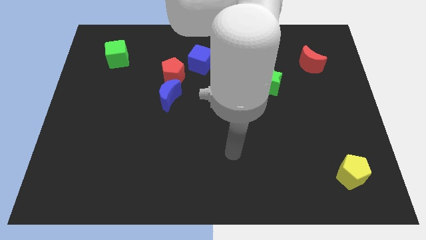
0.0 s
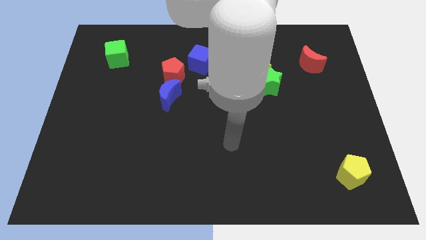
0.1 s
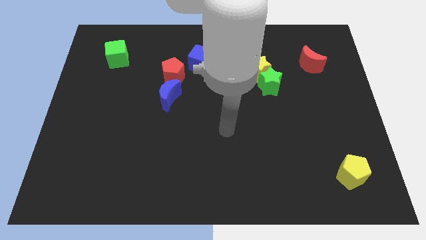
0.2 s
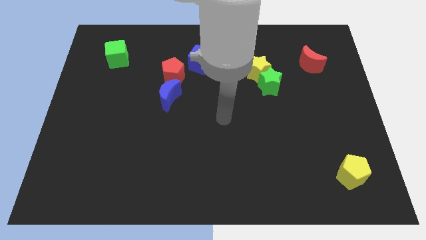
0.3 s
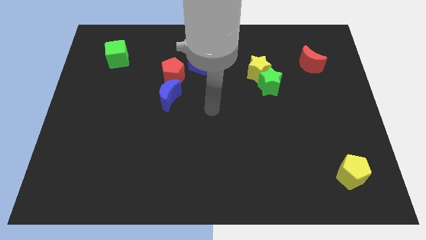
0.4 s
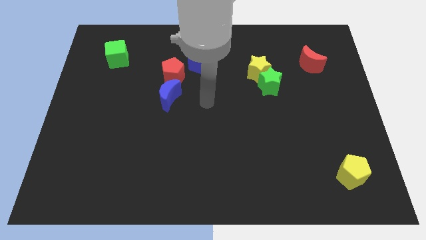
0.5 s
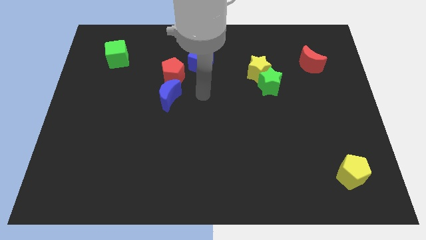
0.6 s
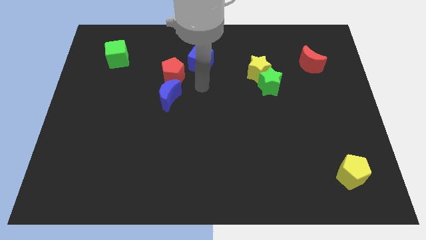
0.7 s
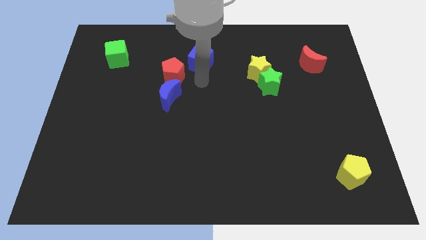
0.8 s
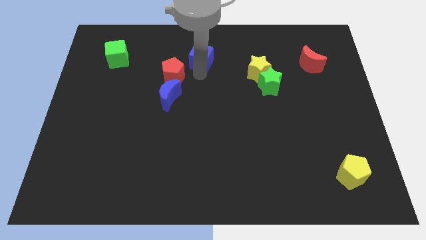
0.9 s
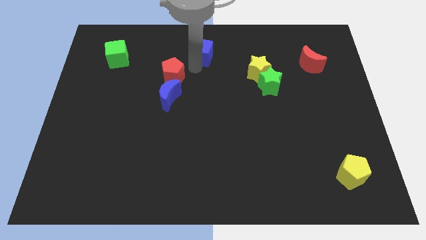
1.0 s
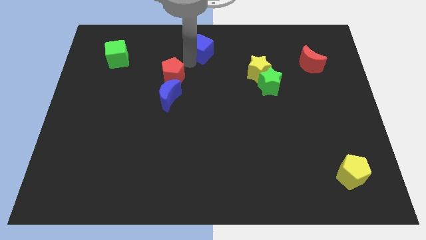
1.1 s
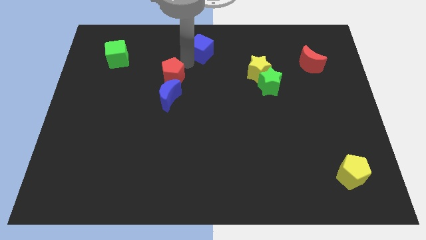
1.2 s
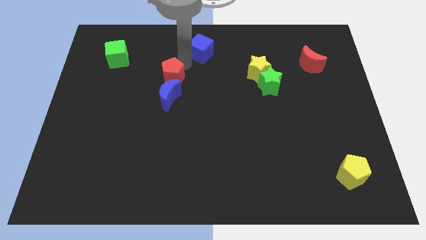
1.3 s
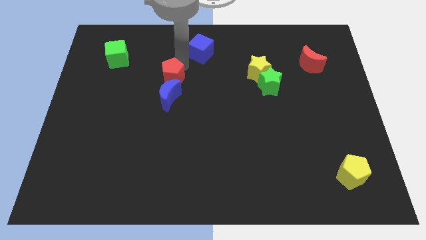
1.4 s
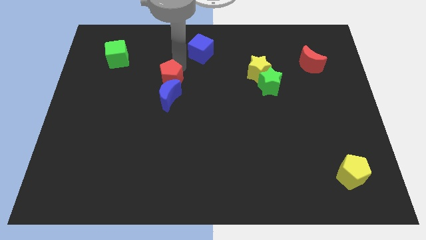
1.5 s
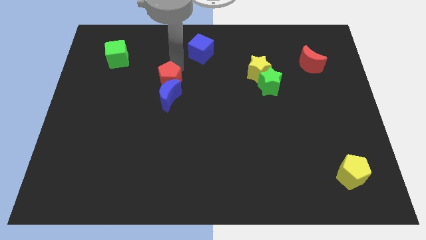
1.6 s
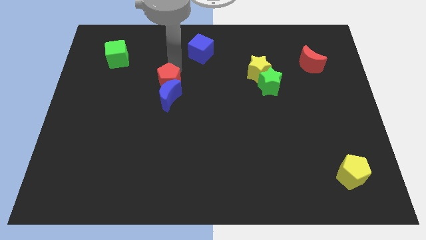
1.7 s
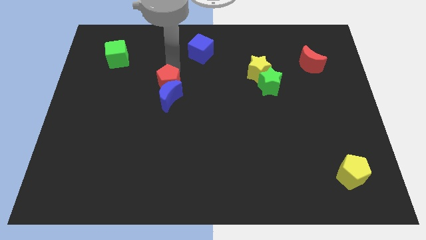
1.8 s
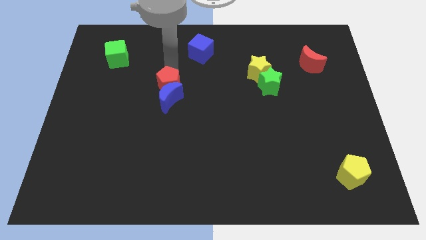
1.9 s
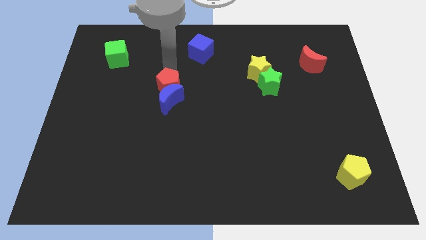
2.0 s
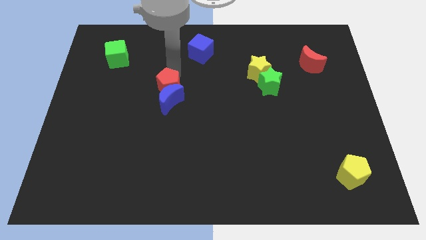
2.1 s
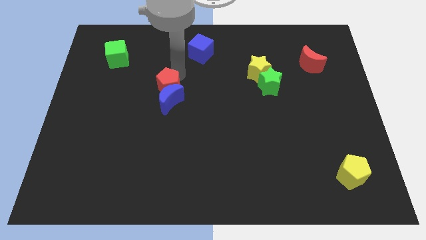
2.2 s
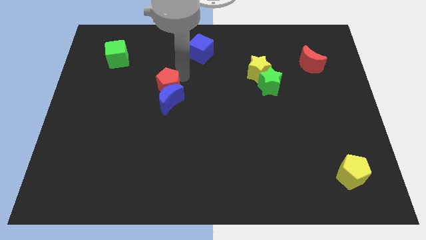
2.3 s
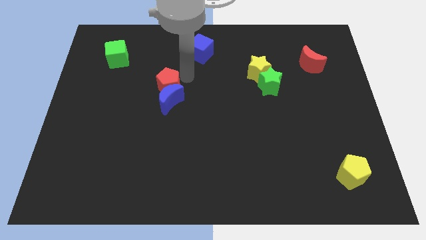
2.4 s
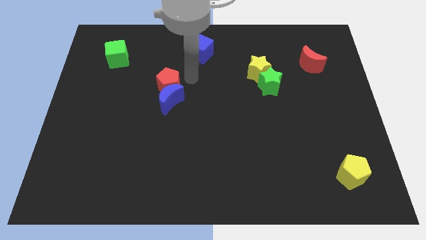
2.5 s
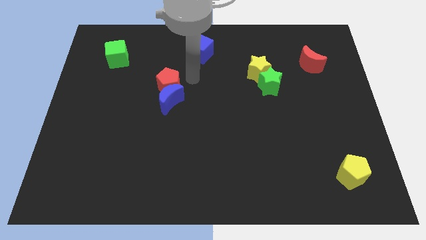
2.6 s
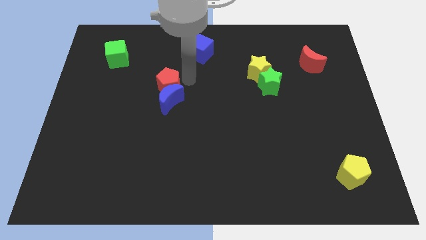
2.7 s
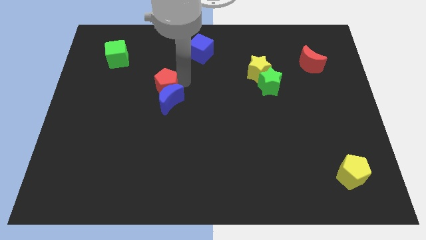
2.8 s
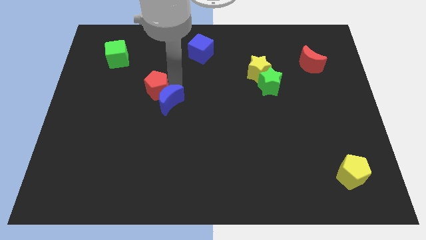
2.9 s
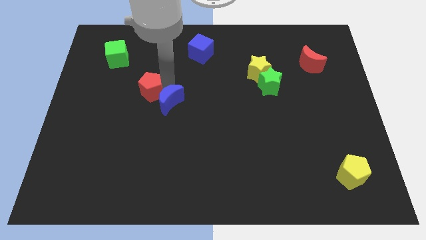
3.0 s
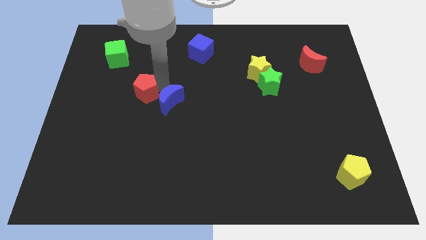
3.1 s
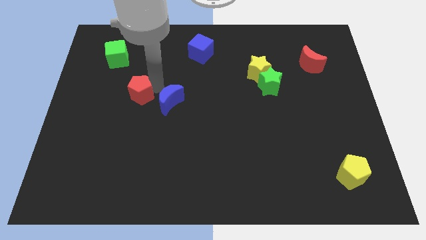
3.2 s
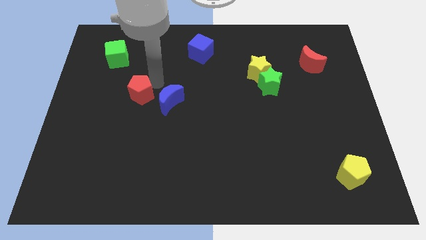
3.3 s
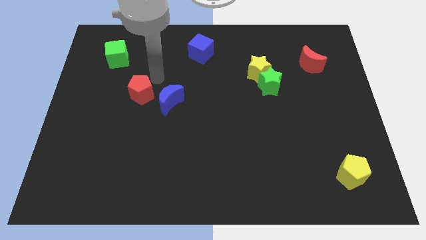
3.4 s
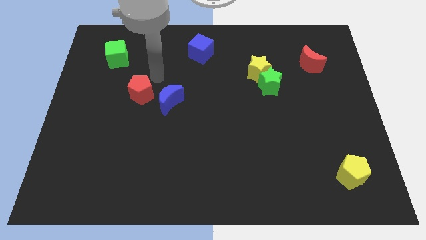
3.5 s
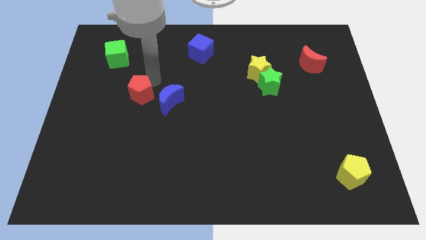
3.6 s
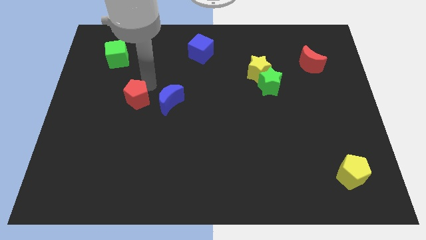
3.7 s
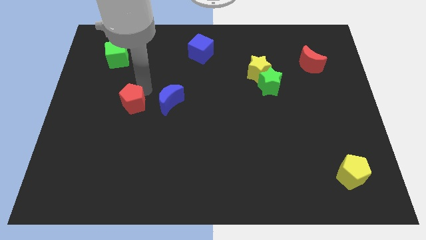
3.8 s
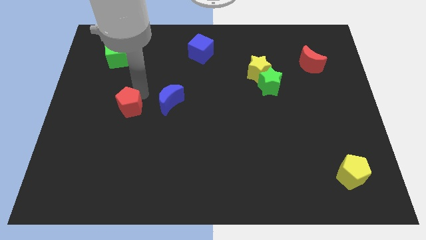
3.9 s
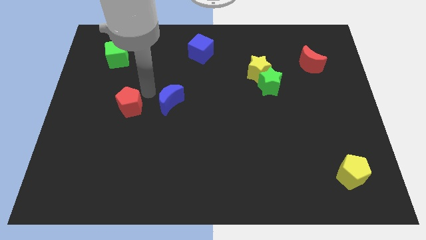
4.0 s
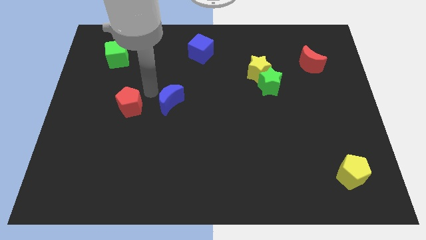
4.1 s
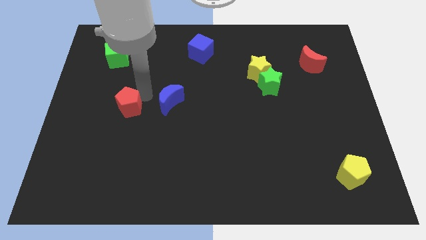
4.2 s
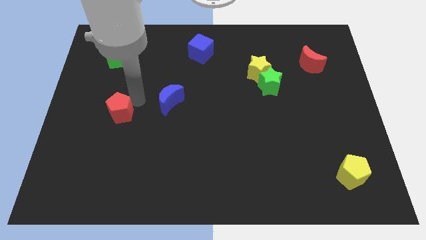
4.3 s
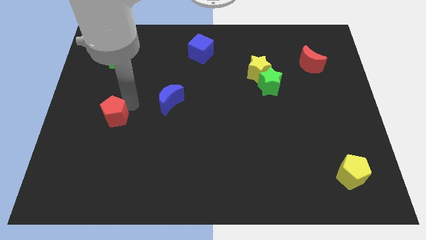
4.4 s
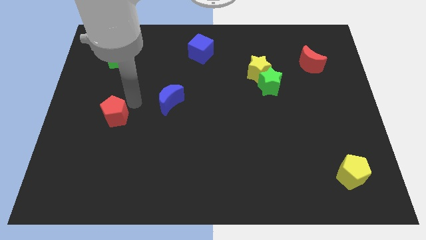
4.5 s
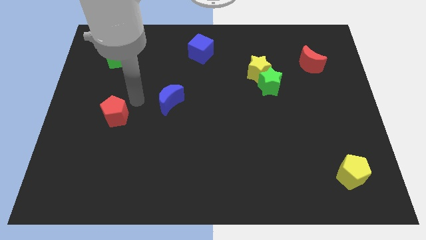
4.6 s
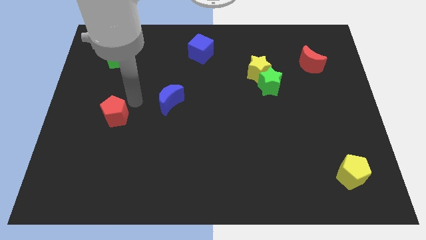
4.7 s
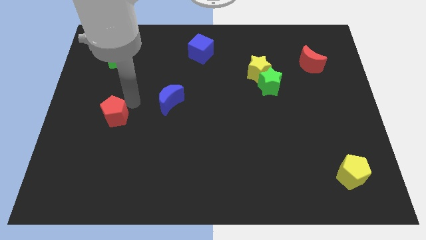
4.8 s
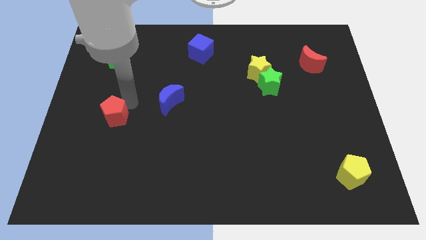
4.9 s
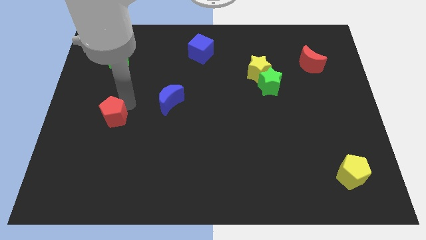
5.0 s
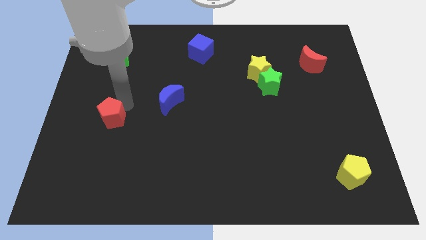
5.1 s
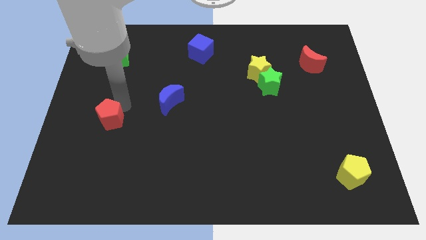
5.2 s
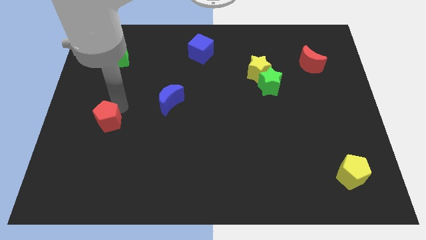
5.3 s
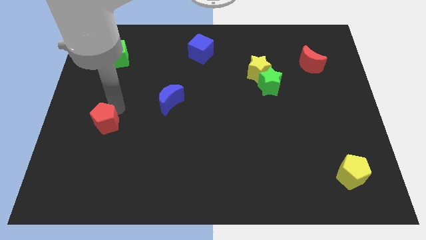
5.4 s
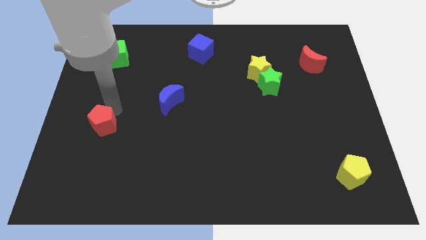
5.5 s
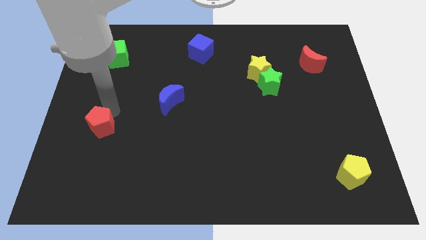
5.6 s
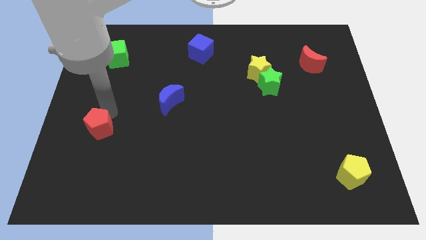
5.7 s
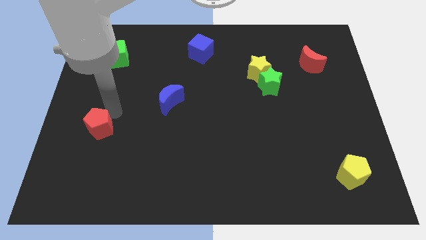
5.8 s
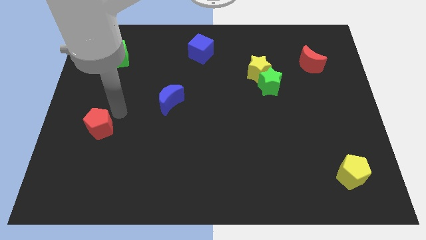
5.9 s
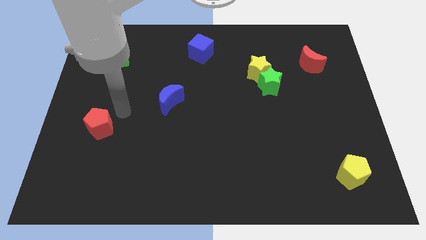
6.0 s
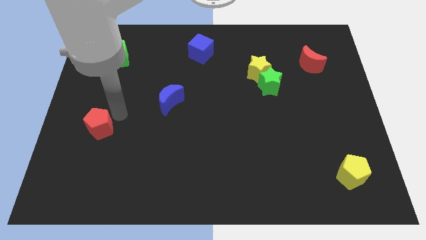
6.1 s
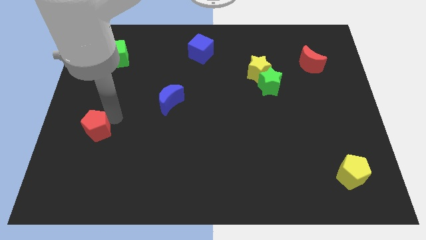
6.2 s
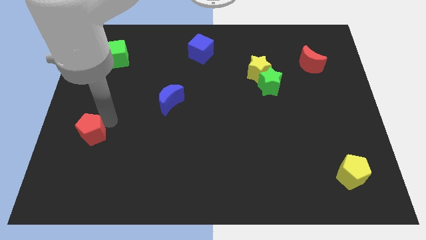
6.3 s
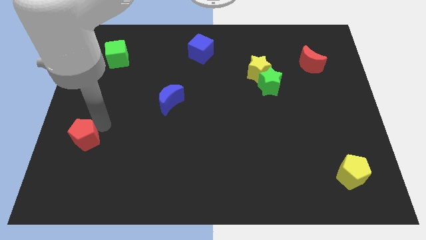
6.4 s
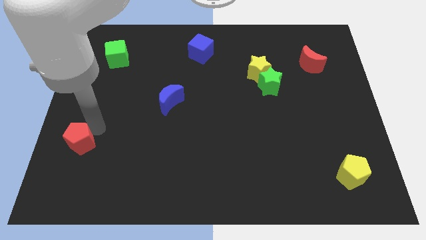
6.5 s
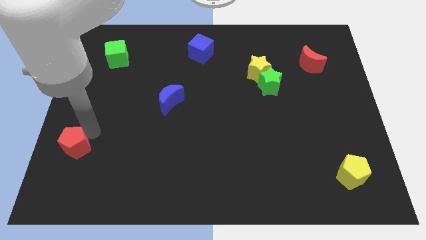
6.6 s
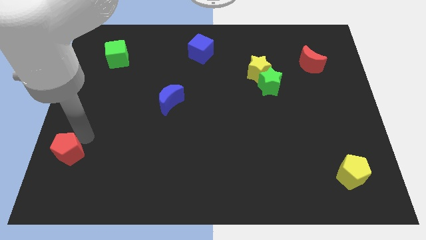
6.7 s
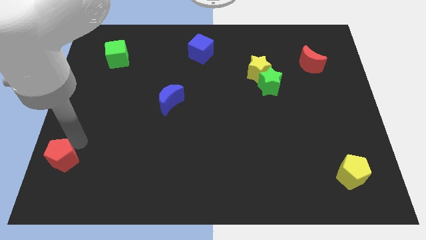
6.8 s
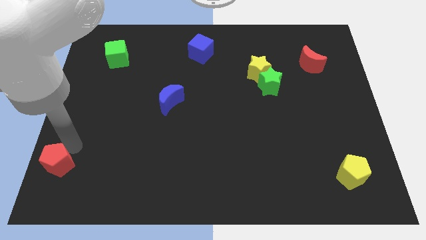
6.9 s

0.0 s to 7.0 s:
slide the red pentagon to the bottom left of the board
